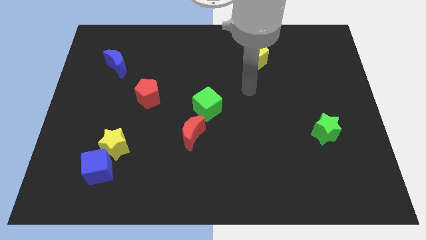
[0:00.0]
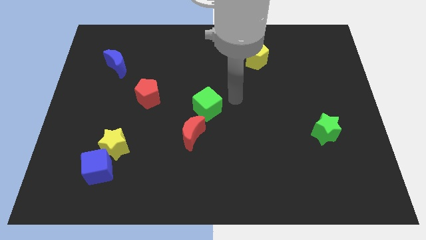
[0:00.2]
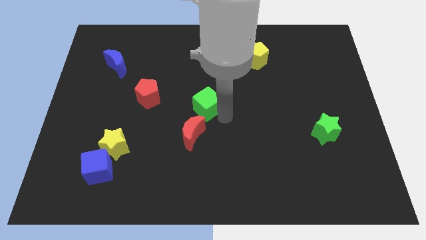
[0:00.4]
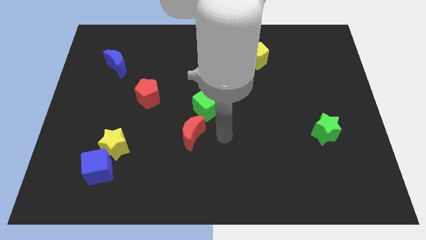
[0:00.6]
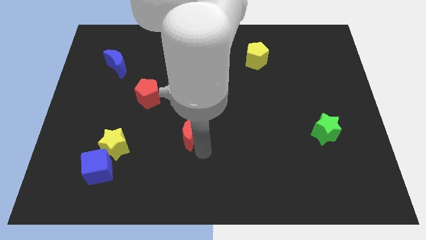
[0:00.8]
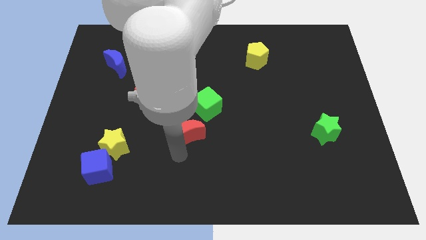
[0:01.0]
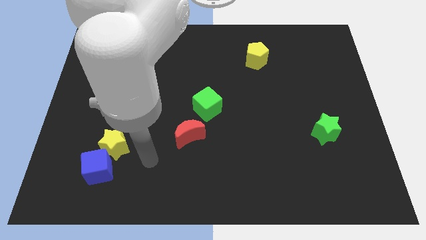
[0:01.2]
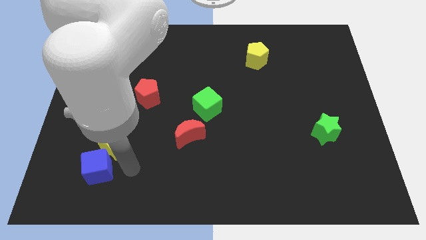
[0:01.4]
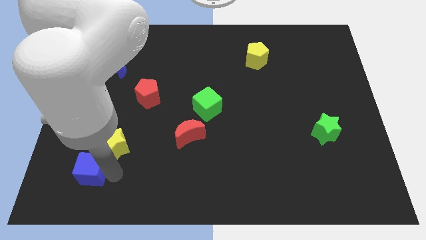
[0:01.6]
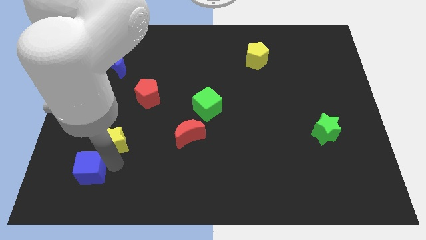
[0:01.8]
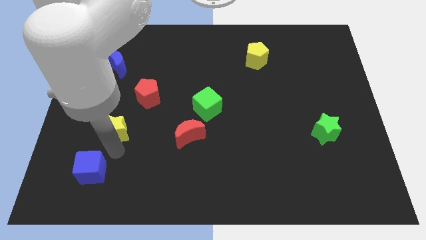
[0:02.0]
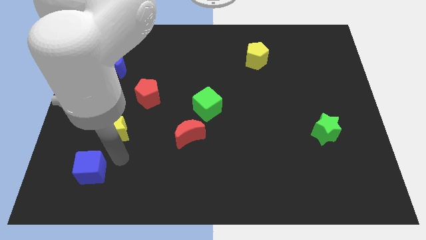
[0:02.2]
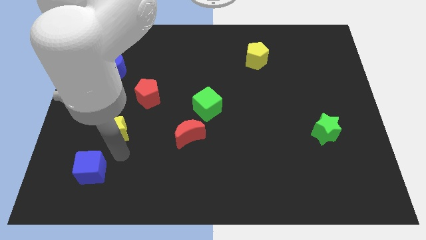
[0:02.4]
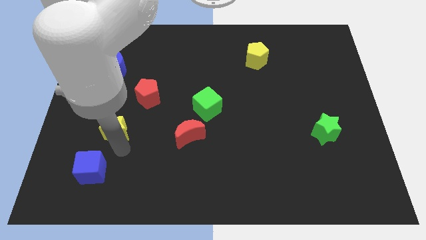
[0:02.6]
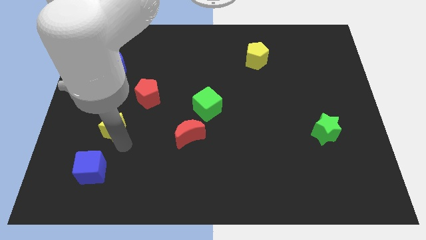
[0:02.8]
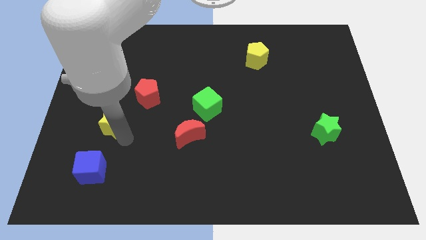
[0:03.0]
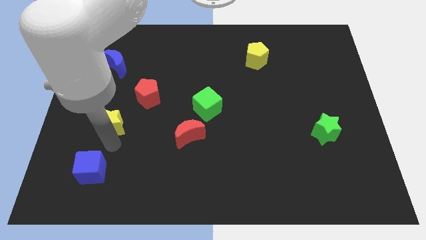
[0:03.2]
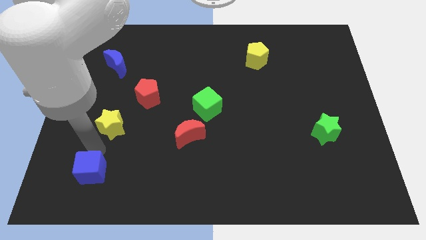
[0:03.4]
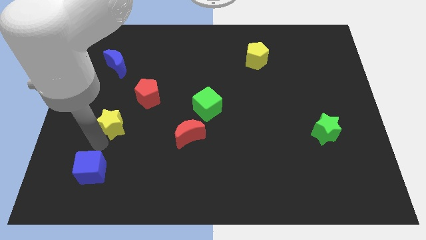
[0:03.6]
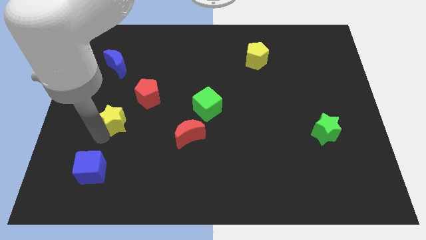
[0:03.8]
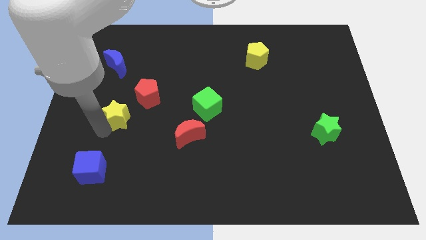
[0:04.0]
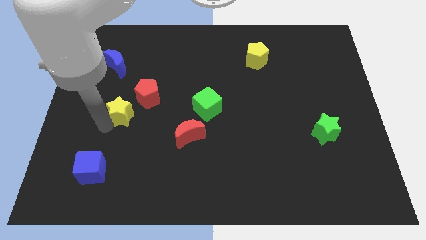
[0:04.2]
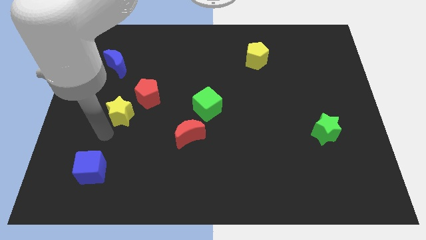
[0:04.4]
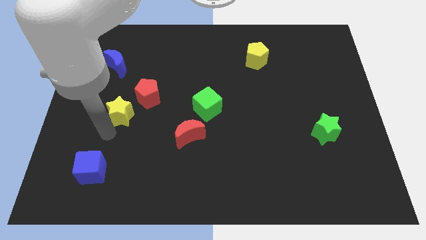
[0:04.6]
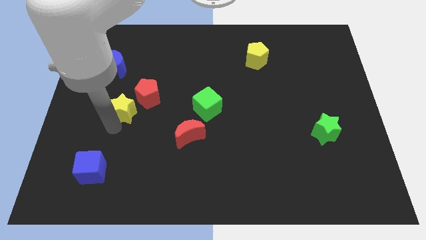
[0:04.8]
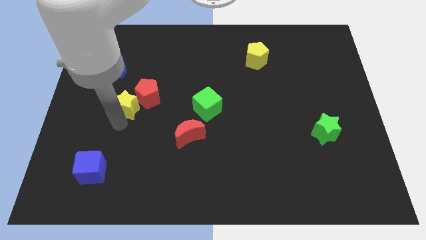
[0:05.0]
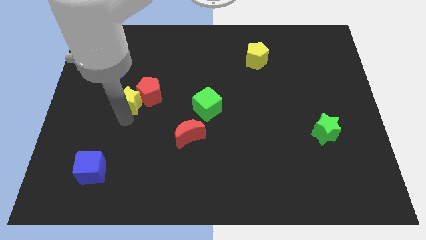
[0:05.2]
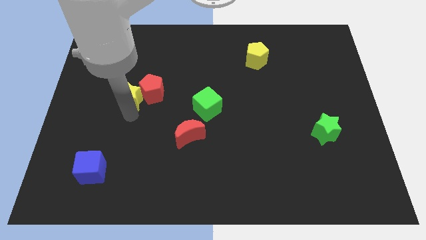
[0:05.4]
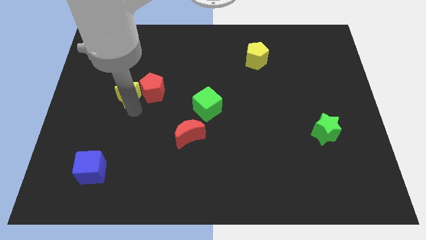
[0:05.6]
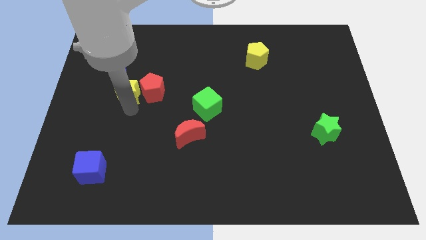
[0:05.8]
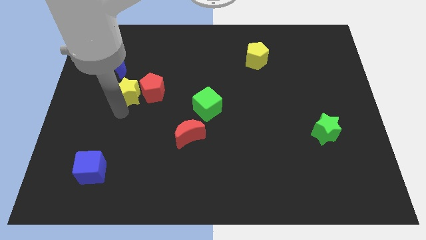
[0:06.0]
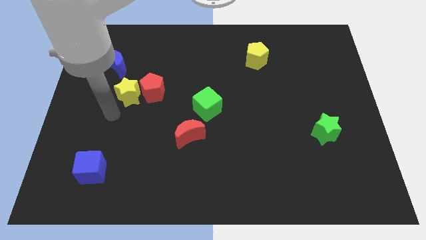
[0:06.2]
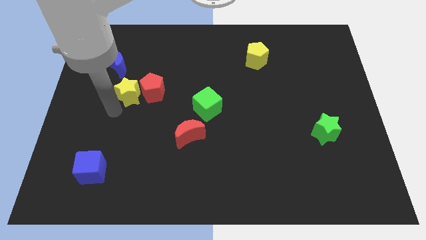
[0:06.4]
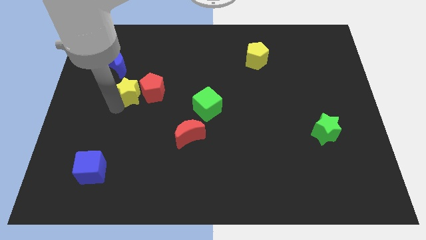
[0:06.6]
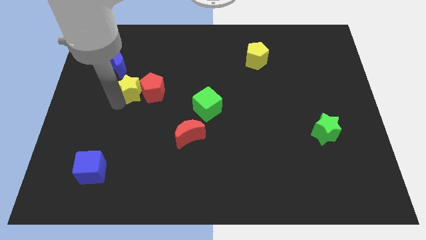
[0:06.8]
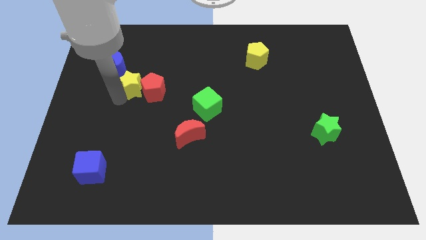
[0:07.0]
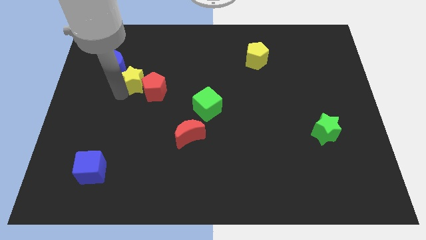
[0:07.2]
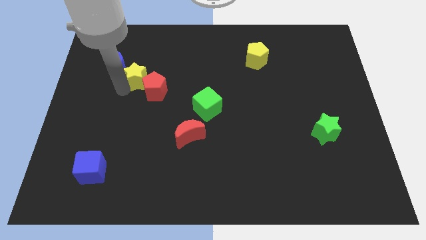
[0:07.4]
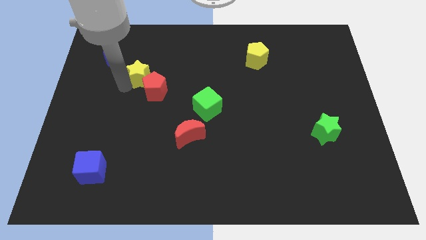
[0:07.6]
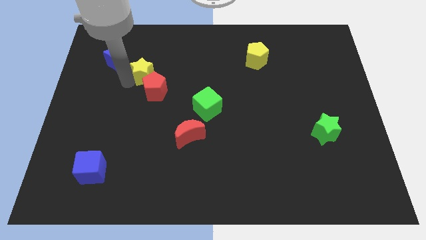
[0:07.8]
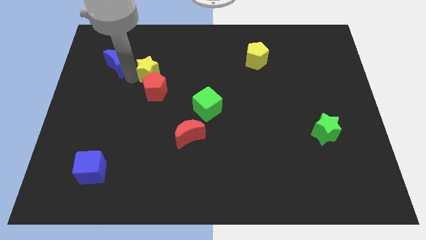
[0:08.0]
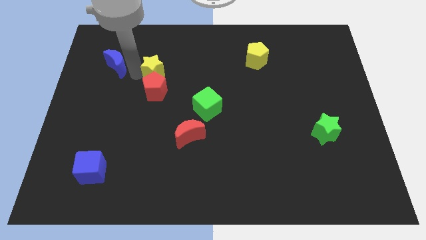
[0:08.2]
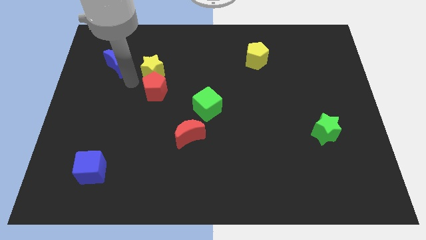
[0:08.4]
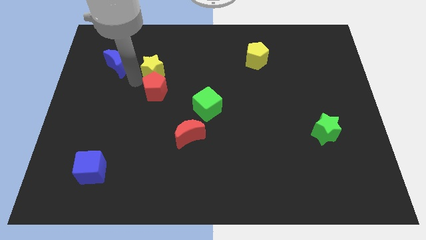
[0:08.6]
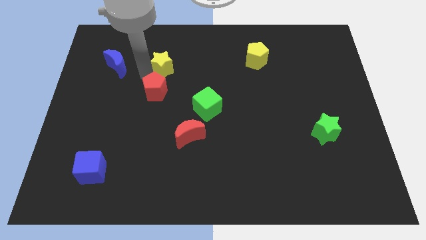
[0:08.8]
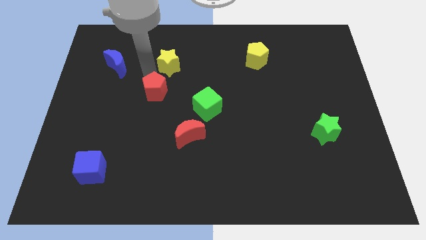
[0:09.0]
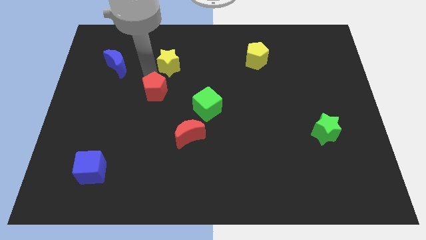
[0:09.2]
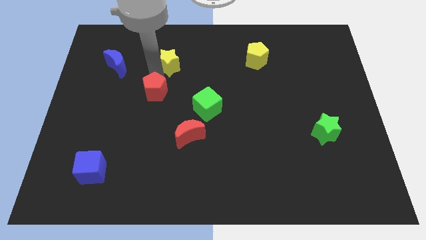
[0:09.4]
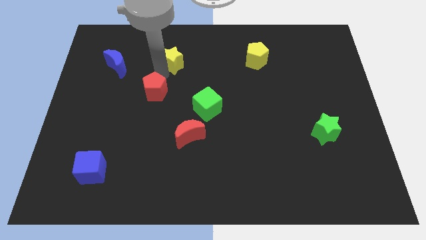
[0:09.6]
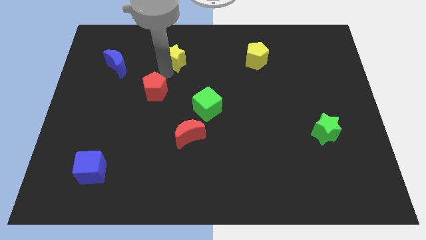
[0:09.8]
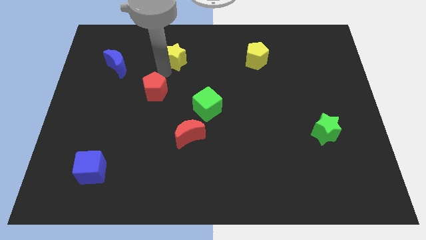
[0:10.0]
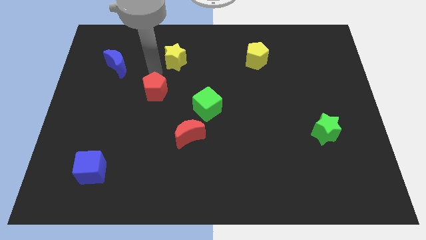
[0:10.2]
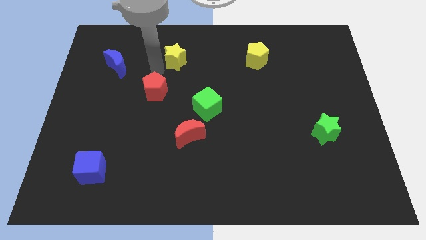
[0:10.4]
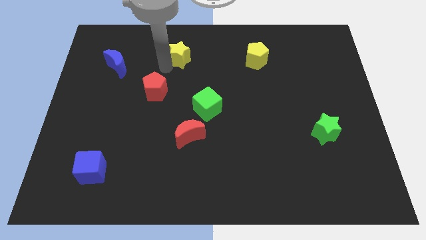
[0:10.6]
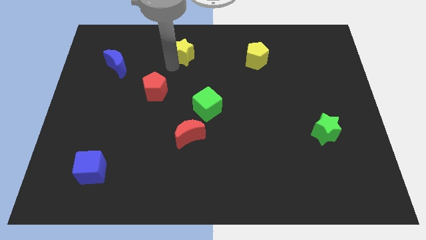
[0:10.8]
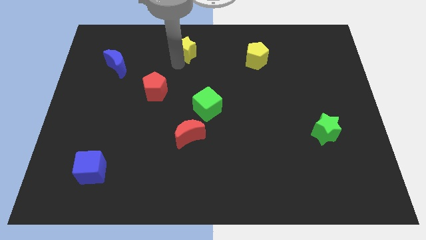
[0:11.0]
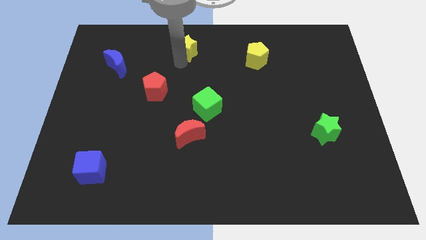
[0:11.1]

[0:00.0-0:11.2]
put the yellow star to the towards your base

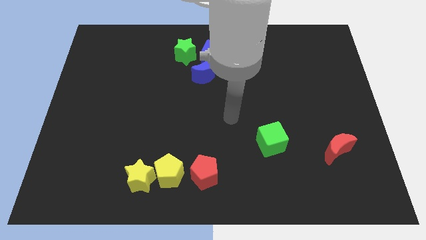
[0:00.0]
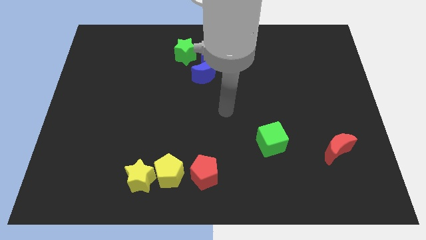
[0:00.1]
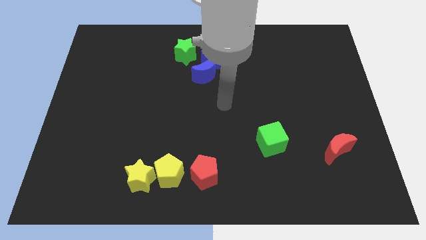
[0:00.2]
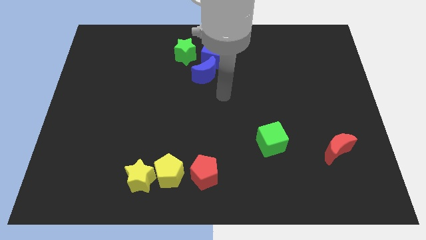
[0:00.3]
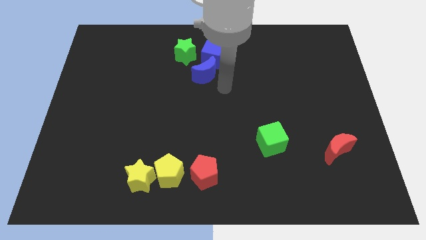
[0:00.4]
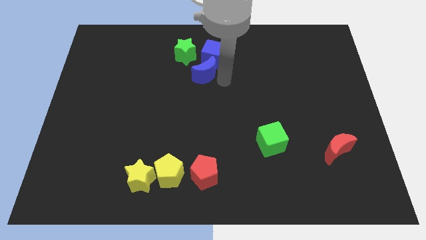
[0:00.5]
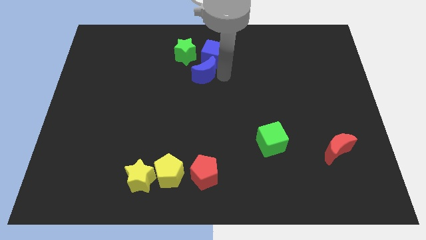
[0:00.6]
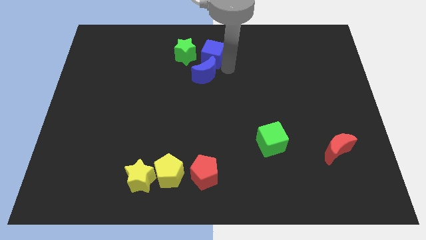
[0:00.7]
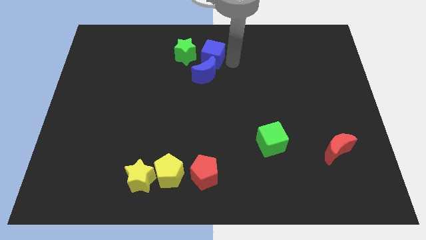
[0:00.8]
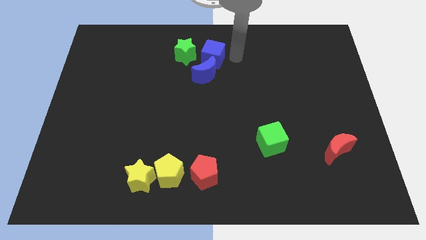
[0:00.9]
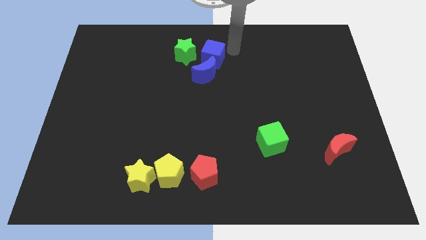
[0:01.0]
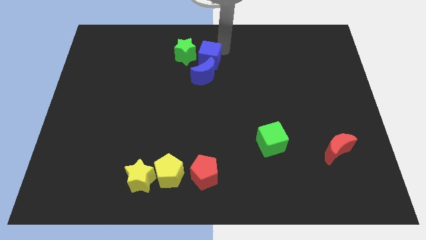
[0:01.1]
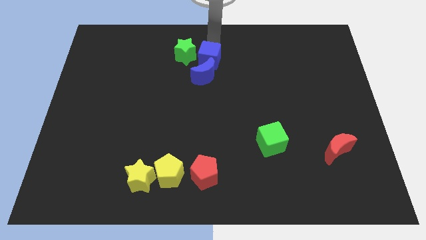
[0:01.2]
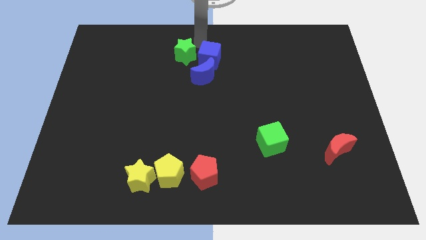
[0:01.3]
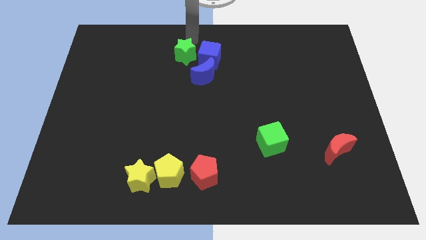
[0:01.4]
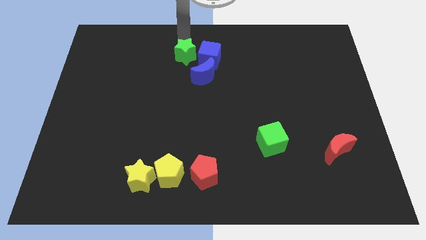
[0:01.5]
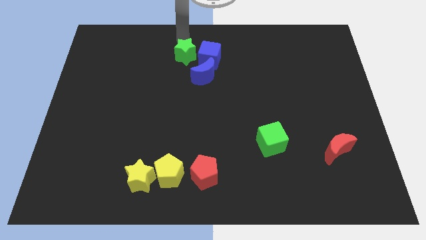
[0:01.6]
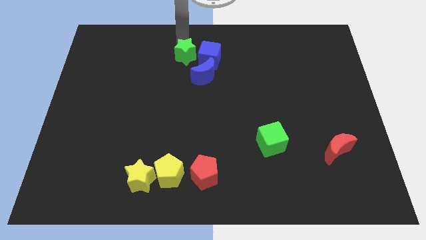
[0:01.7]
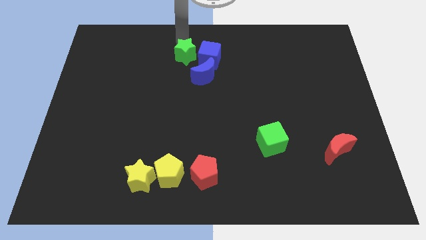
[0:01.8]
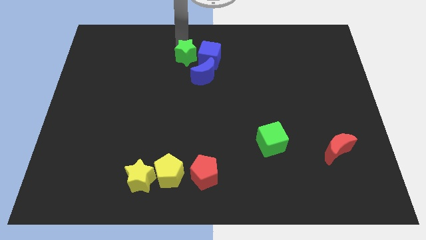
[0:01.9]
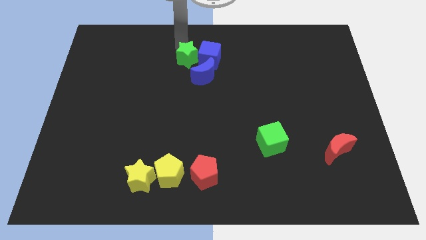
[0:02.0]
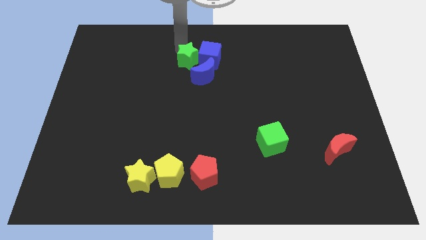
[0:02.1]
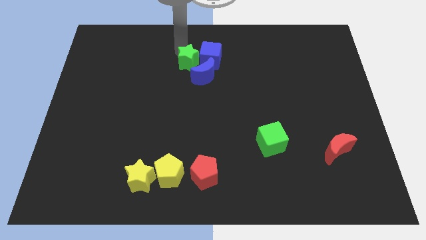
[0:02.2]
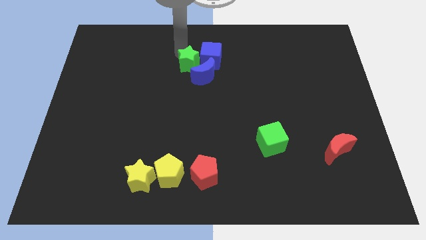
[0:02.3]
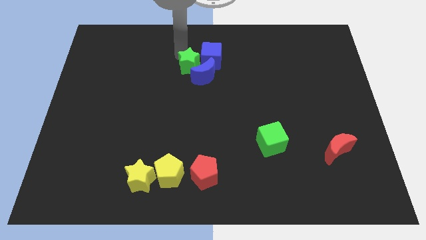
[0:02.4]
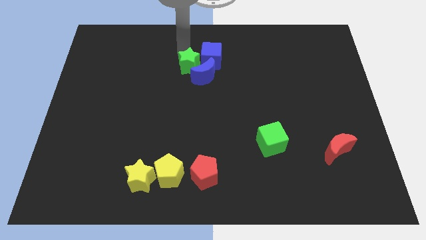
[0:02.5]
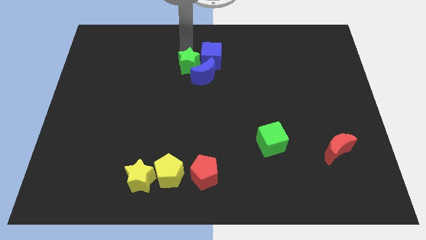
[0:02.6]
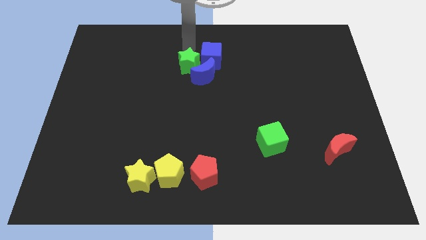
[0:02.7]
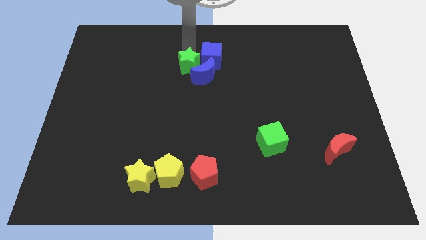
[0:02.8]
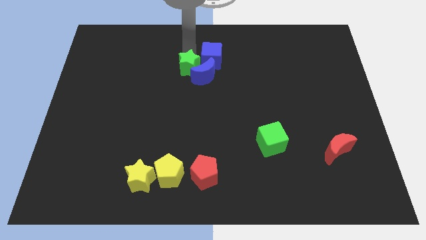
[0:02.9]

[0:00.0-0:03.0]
move the green star to the middle of the board
